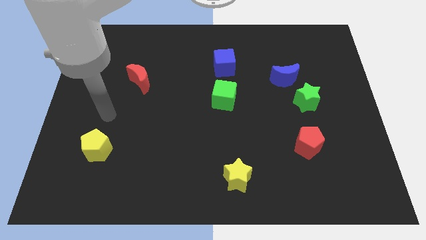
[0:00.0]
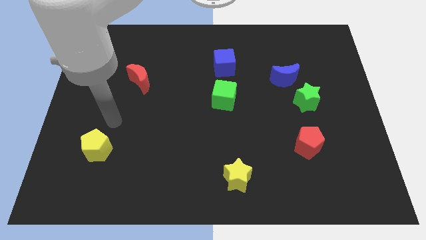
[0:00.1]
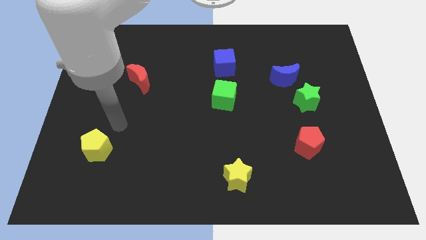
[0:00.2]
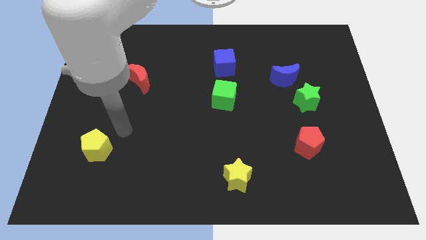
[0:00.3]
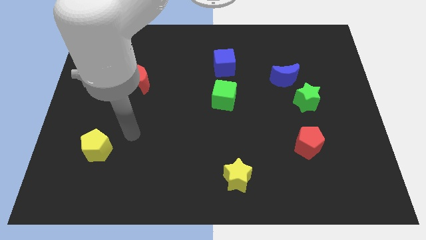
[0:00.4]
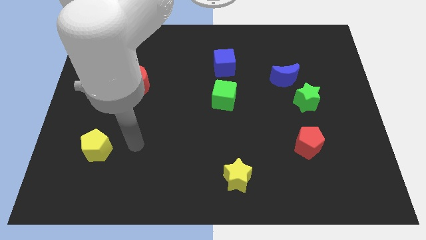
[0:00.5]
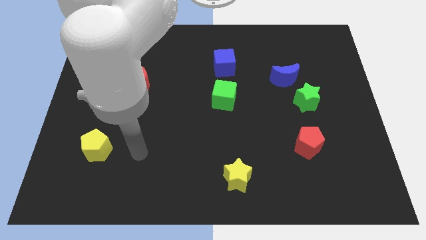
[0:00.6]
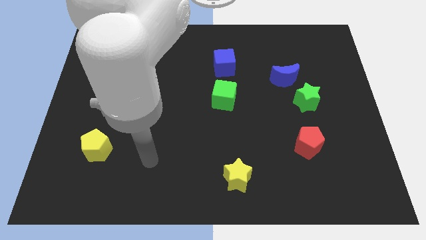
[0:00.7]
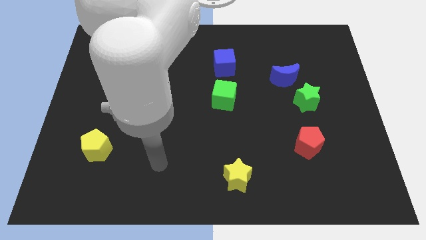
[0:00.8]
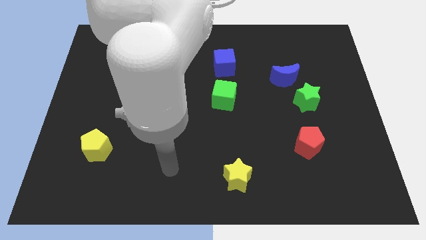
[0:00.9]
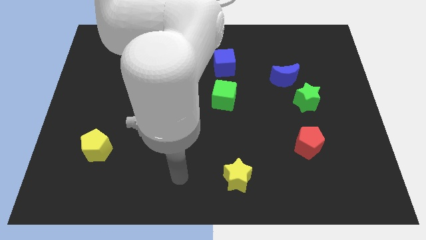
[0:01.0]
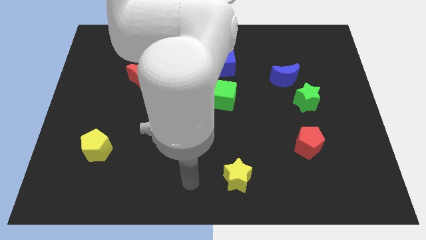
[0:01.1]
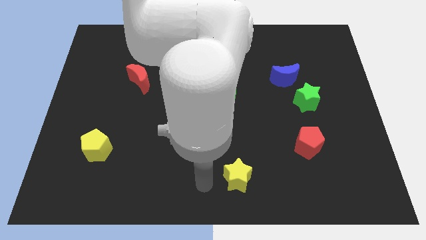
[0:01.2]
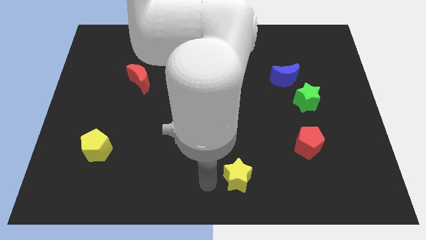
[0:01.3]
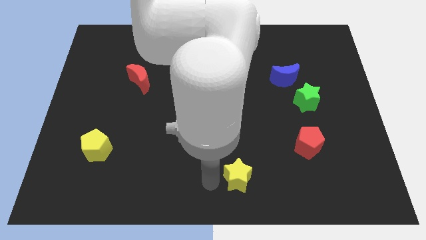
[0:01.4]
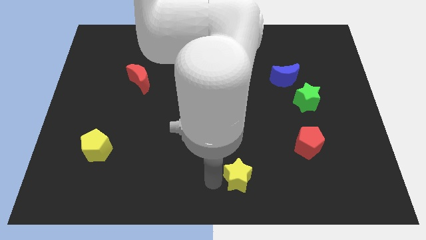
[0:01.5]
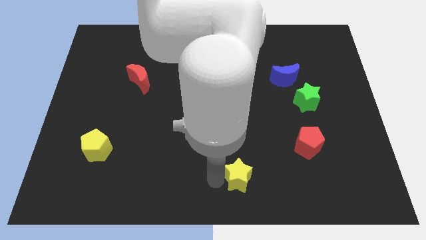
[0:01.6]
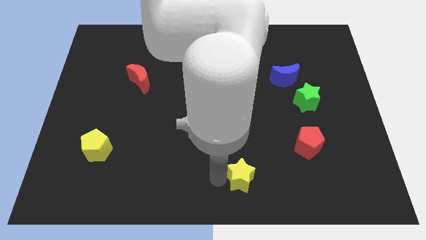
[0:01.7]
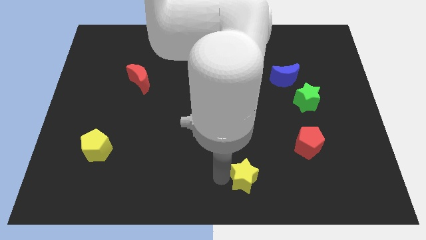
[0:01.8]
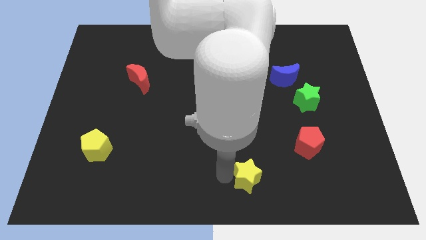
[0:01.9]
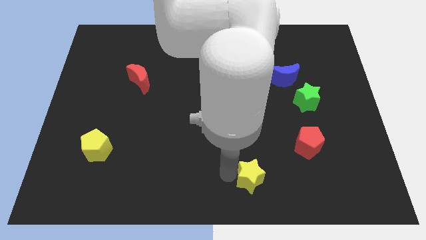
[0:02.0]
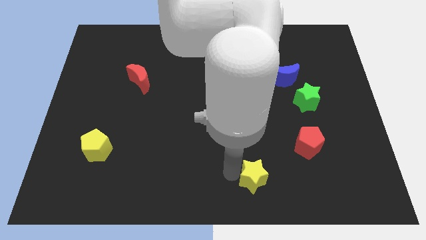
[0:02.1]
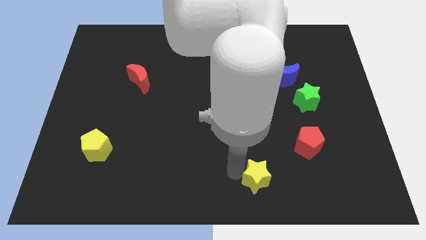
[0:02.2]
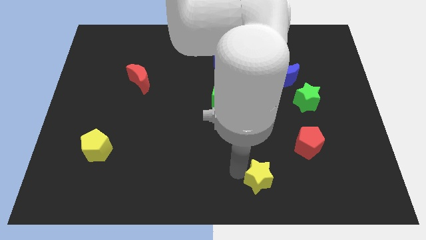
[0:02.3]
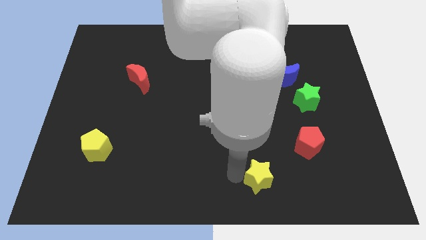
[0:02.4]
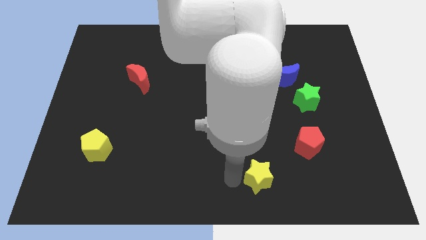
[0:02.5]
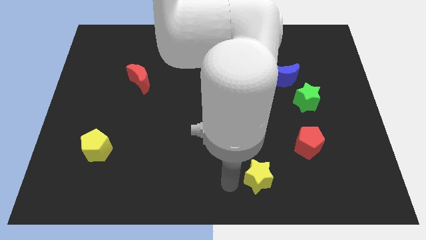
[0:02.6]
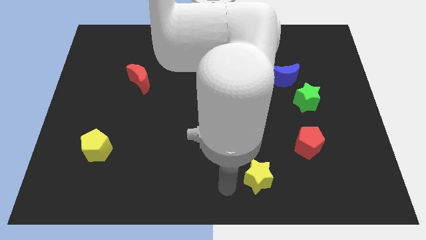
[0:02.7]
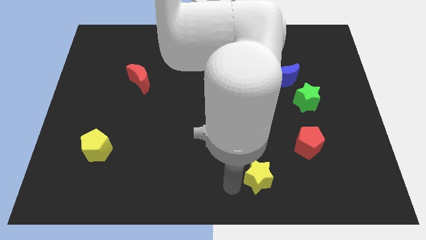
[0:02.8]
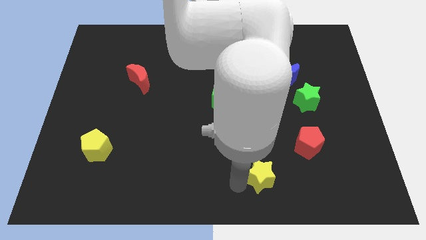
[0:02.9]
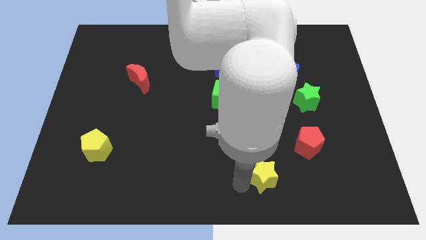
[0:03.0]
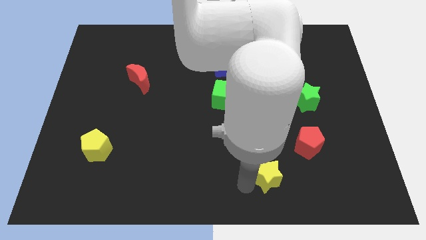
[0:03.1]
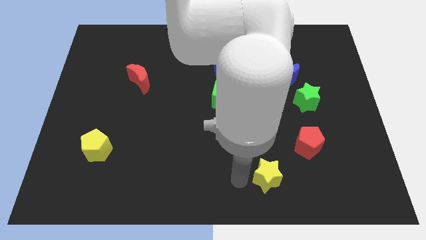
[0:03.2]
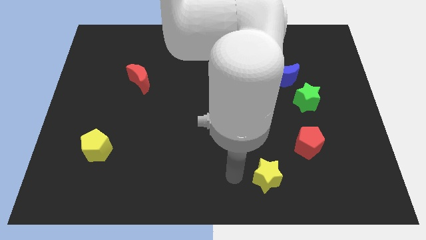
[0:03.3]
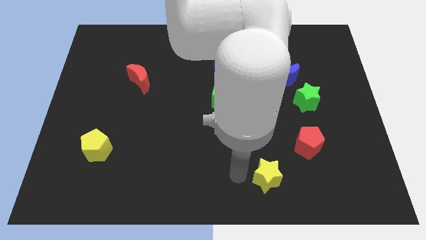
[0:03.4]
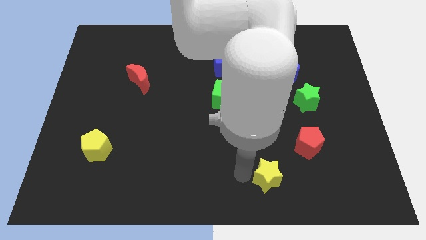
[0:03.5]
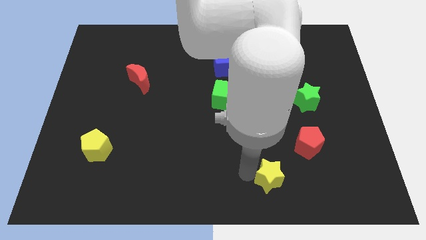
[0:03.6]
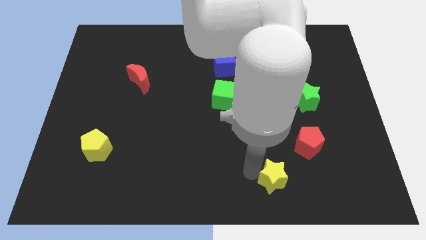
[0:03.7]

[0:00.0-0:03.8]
slide the yellow star a little right

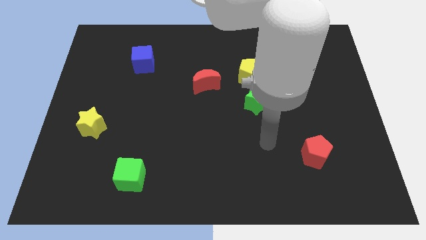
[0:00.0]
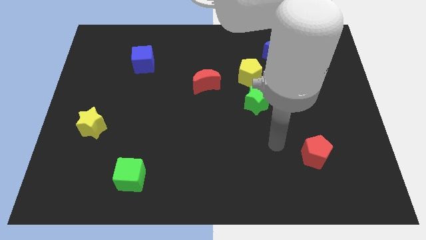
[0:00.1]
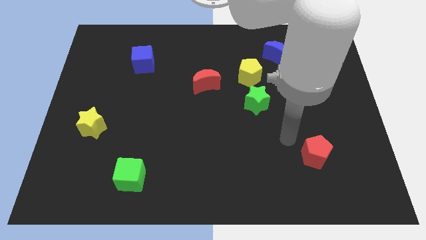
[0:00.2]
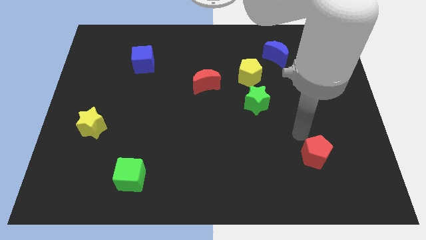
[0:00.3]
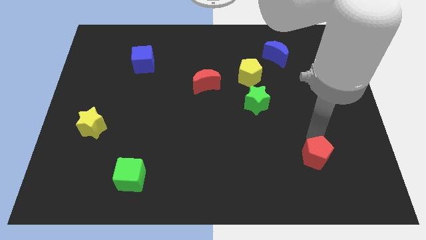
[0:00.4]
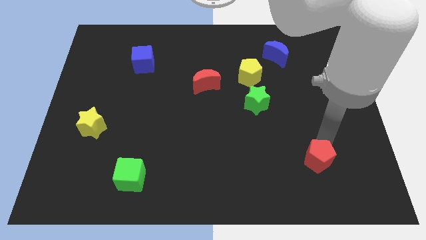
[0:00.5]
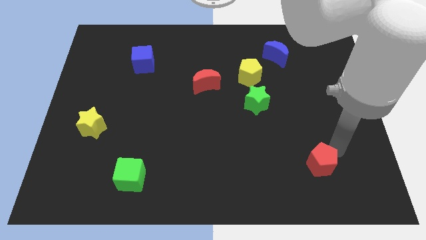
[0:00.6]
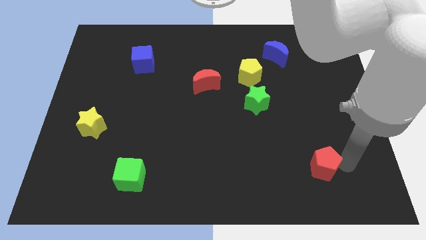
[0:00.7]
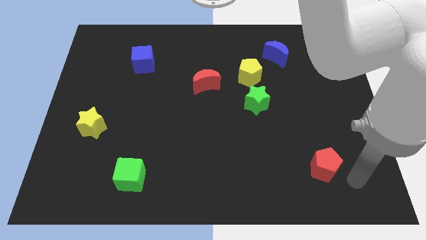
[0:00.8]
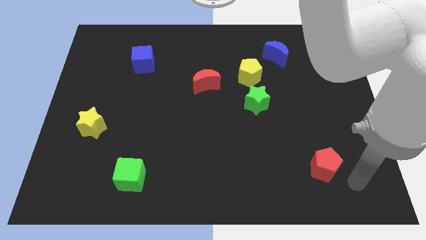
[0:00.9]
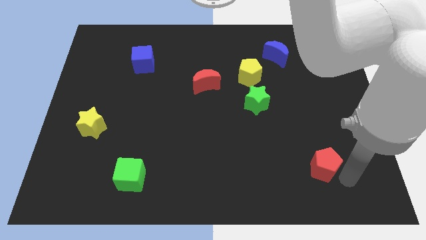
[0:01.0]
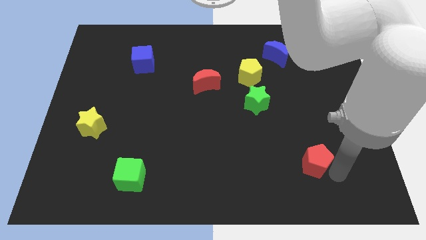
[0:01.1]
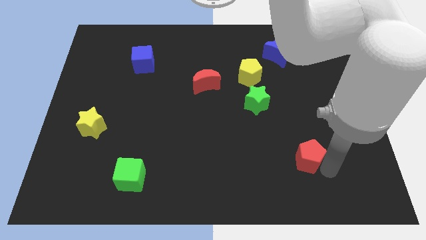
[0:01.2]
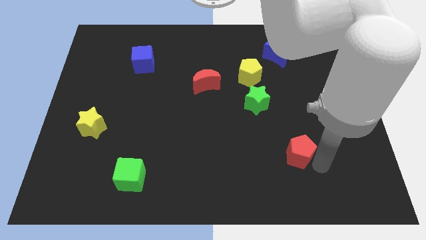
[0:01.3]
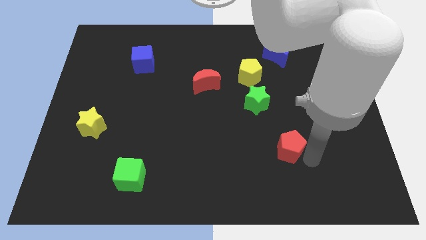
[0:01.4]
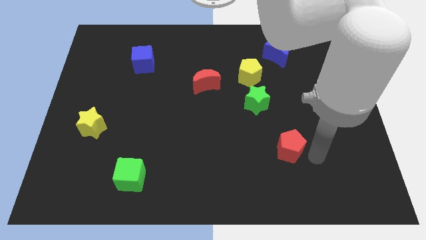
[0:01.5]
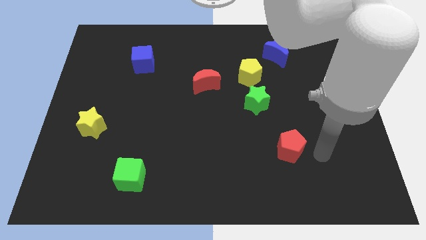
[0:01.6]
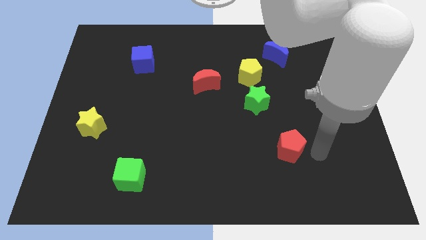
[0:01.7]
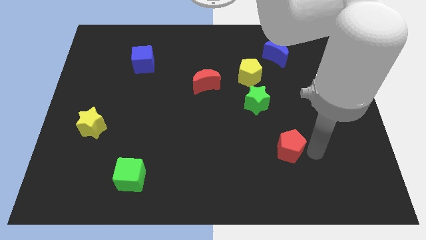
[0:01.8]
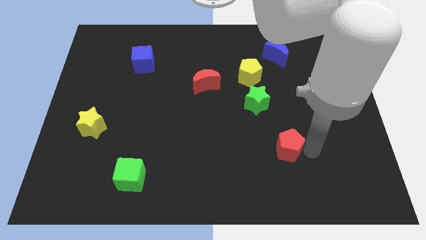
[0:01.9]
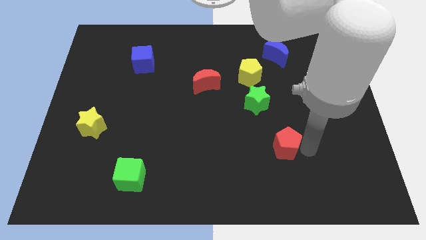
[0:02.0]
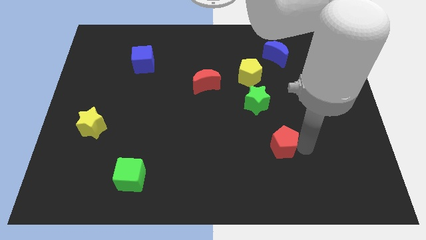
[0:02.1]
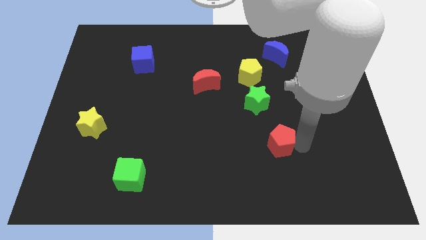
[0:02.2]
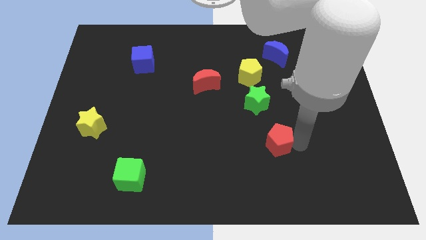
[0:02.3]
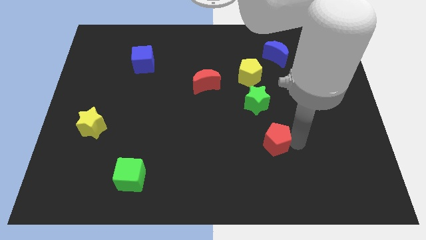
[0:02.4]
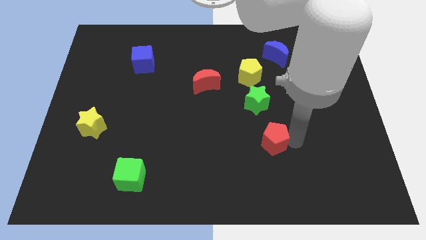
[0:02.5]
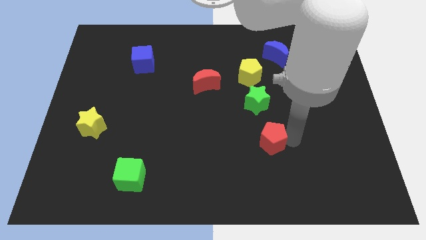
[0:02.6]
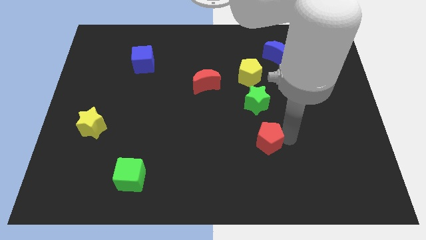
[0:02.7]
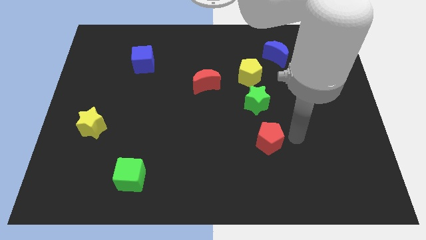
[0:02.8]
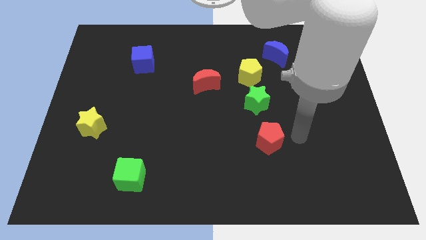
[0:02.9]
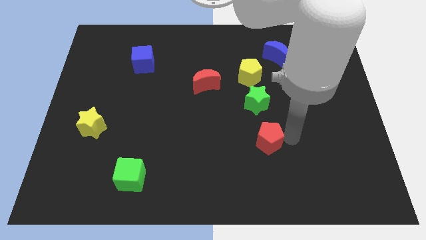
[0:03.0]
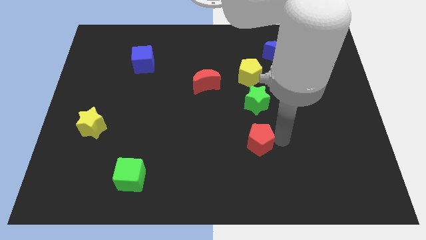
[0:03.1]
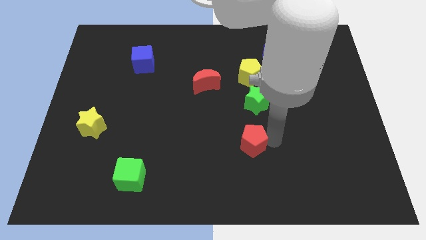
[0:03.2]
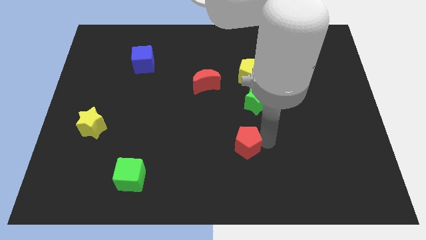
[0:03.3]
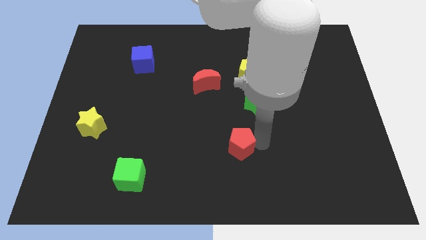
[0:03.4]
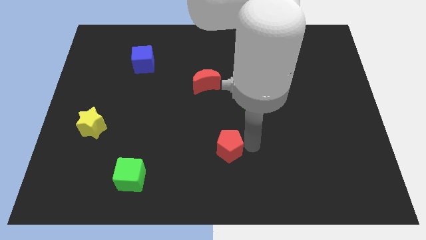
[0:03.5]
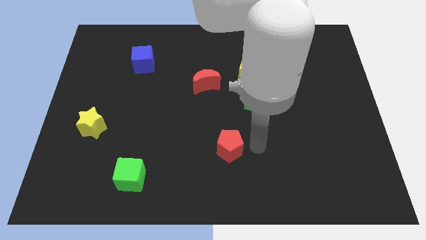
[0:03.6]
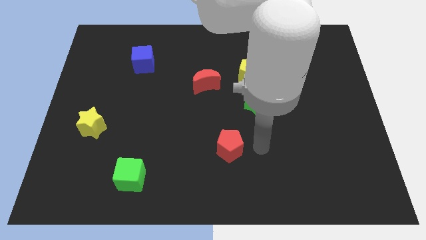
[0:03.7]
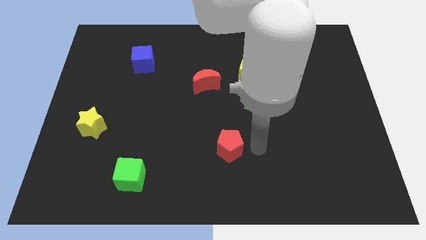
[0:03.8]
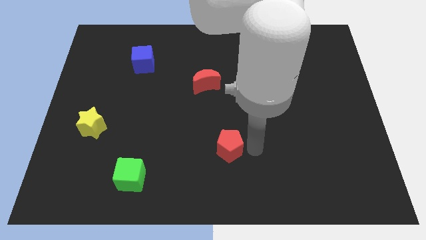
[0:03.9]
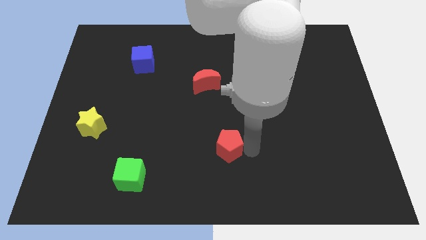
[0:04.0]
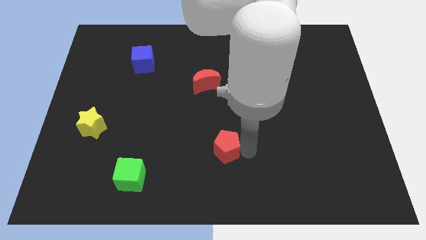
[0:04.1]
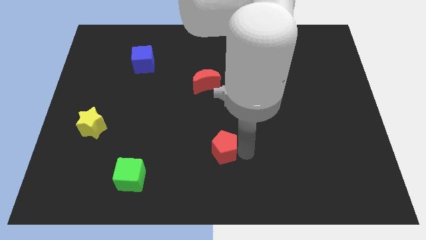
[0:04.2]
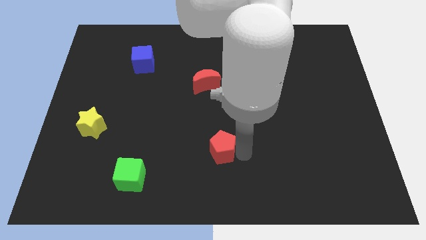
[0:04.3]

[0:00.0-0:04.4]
push the red pentagon left

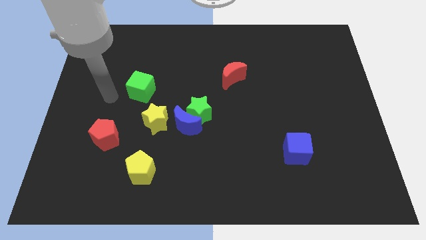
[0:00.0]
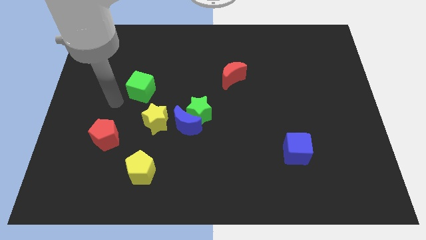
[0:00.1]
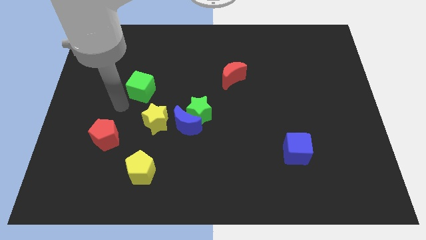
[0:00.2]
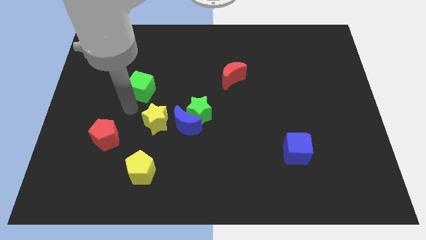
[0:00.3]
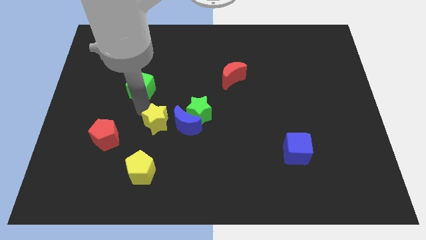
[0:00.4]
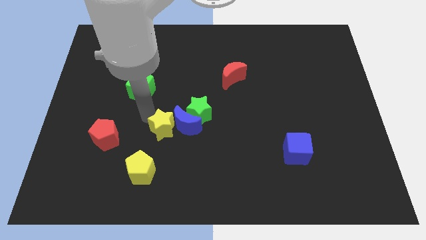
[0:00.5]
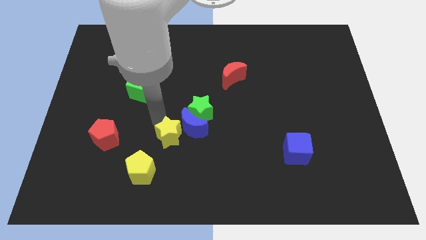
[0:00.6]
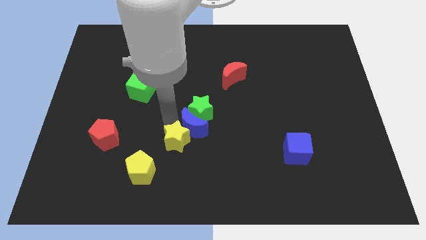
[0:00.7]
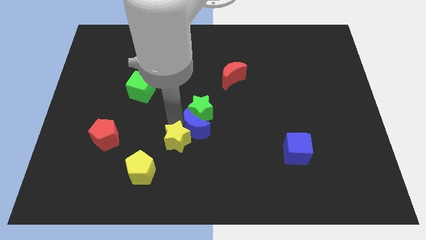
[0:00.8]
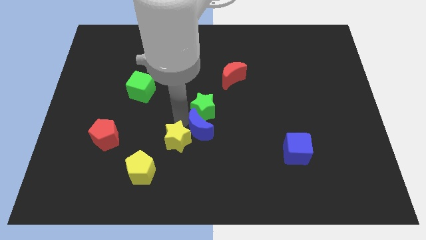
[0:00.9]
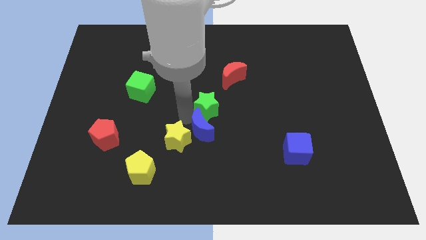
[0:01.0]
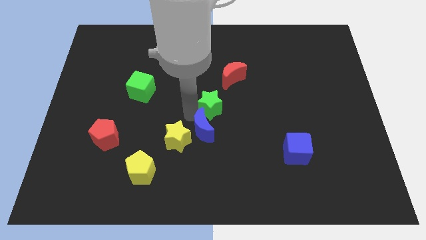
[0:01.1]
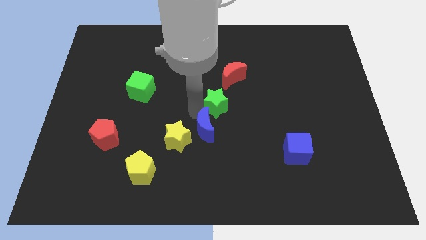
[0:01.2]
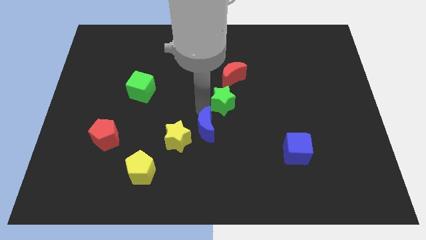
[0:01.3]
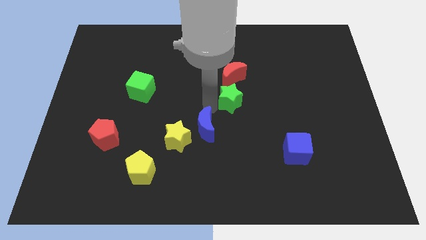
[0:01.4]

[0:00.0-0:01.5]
move the green star up and right a little
